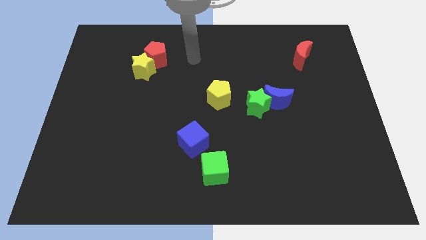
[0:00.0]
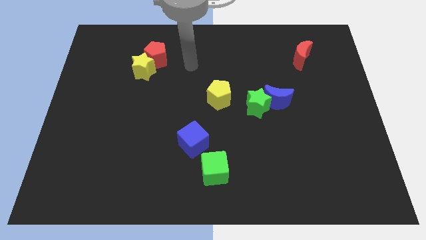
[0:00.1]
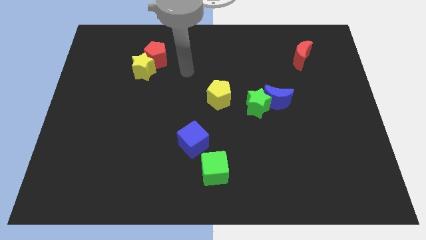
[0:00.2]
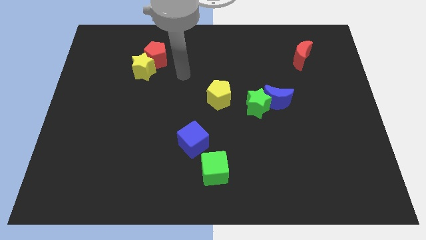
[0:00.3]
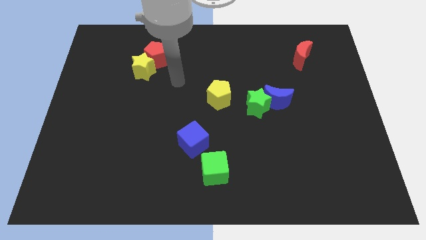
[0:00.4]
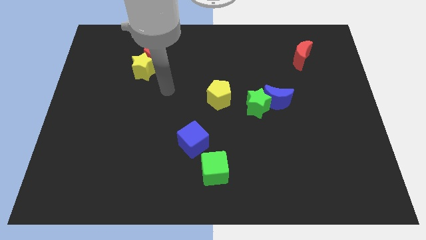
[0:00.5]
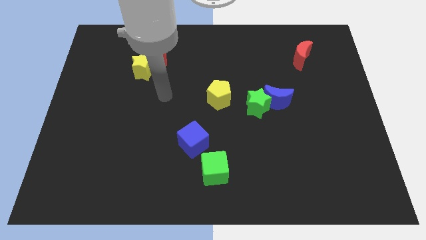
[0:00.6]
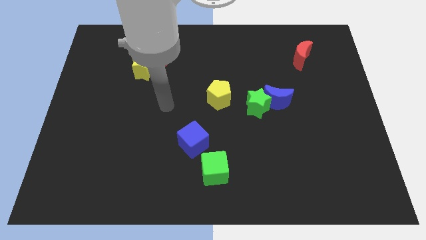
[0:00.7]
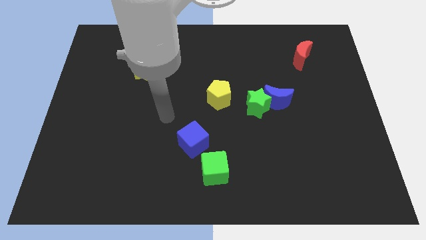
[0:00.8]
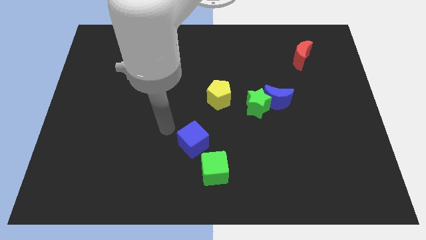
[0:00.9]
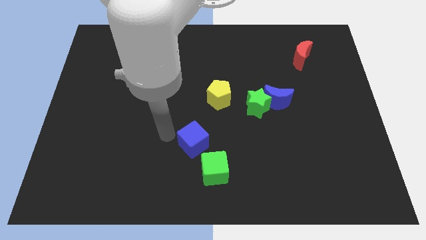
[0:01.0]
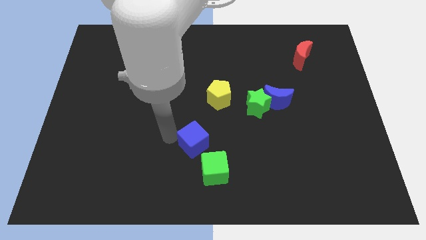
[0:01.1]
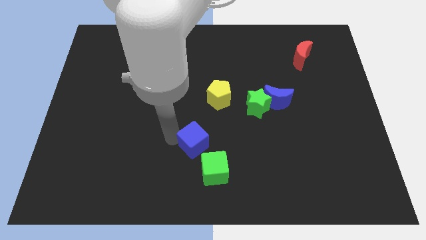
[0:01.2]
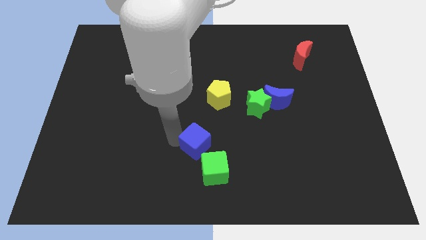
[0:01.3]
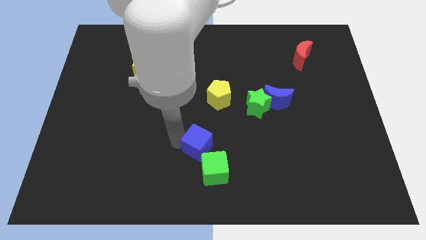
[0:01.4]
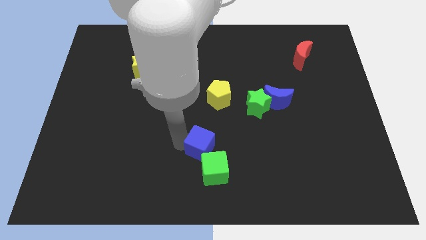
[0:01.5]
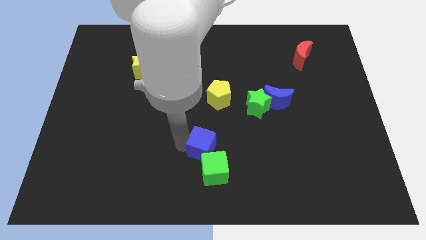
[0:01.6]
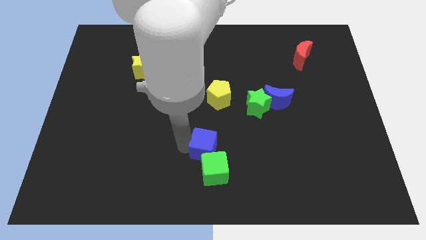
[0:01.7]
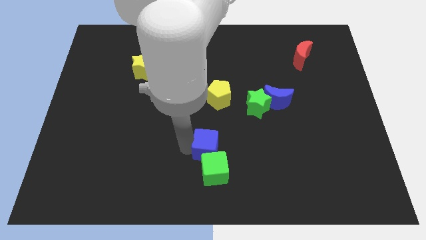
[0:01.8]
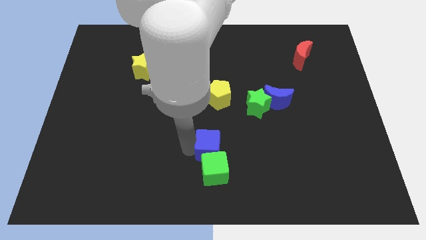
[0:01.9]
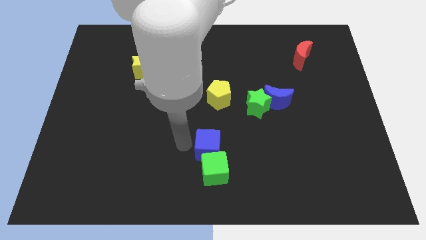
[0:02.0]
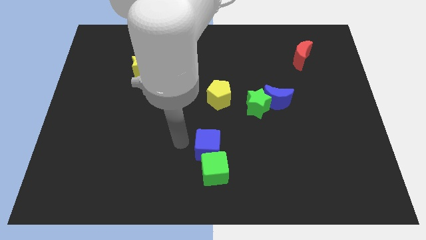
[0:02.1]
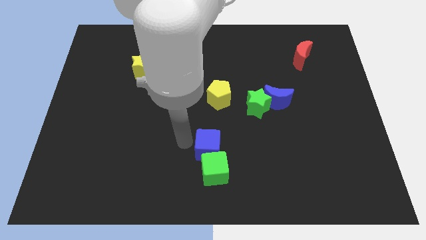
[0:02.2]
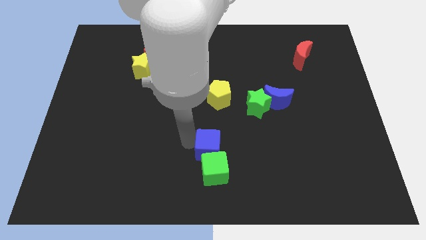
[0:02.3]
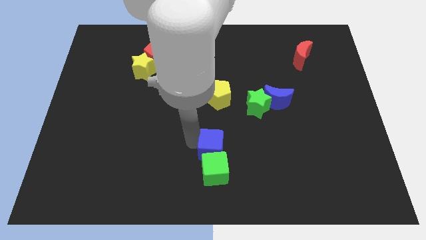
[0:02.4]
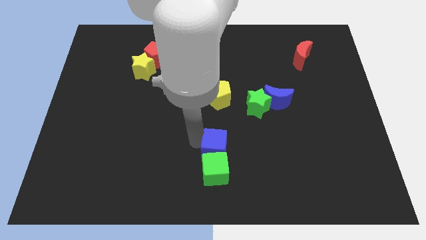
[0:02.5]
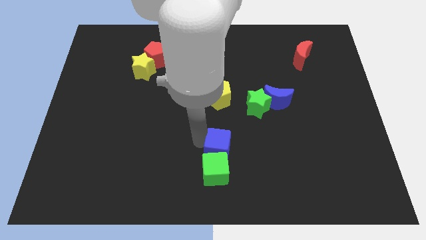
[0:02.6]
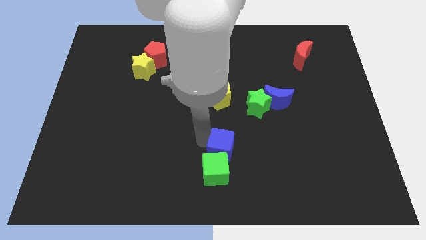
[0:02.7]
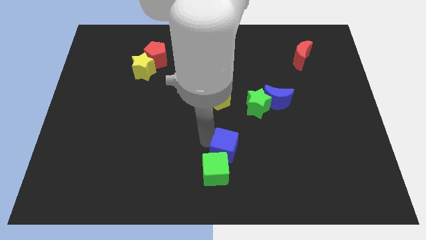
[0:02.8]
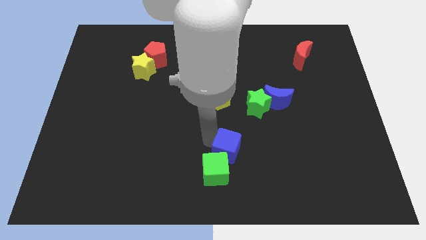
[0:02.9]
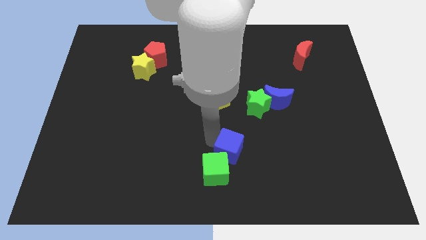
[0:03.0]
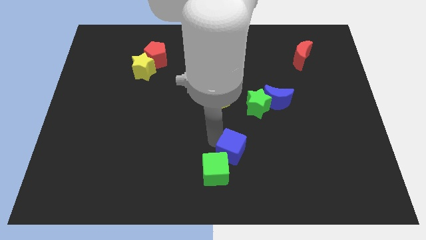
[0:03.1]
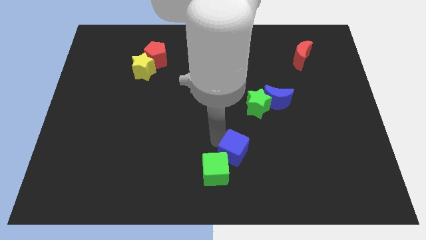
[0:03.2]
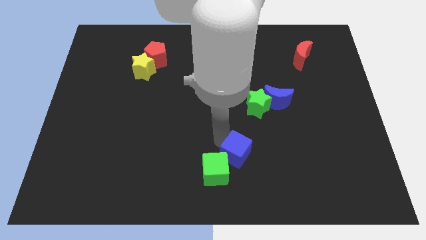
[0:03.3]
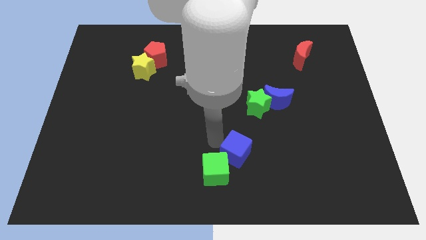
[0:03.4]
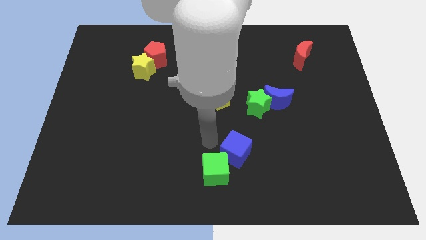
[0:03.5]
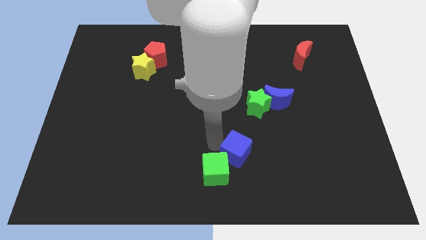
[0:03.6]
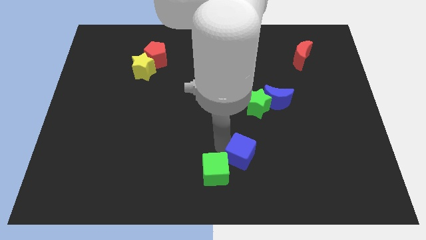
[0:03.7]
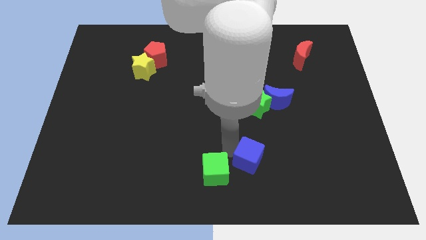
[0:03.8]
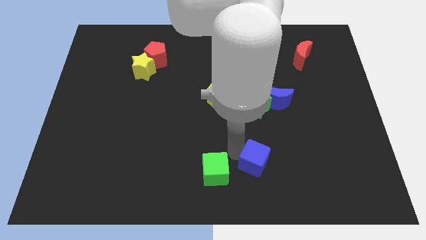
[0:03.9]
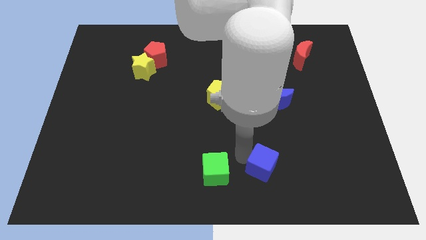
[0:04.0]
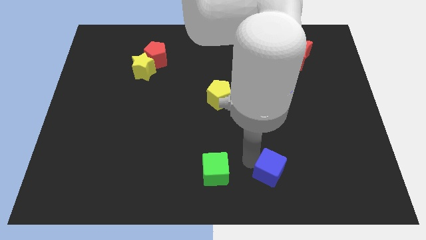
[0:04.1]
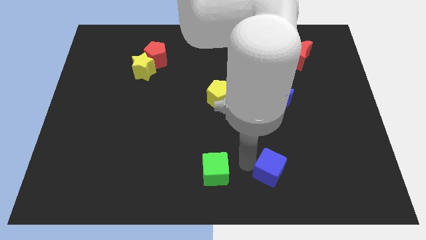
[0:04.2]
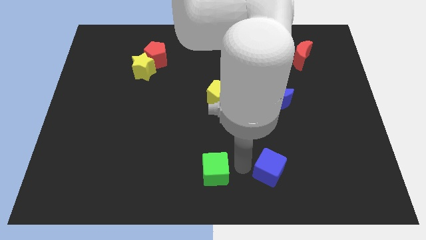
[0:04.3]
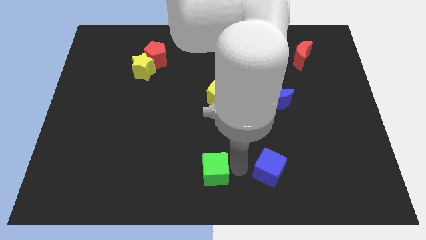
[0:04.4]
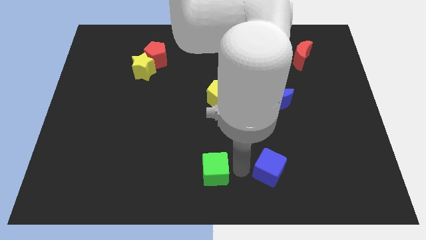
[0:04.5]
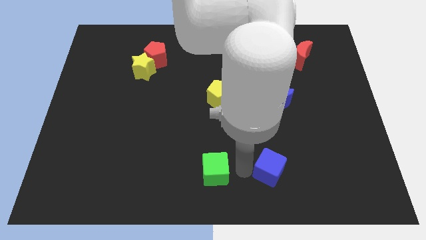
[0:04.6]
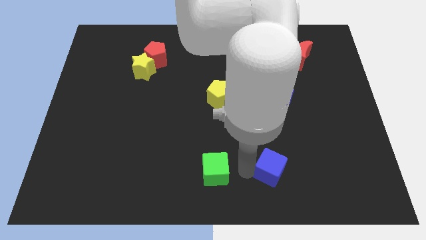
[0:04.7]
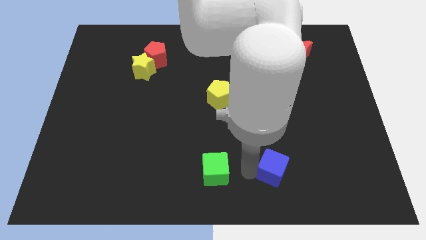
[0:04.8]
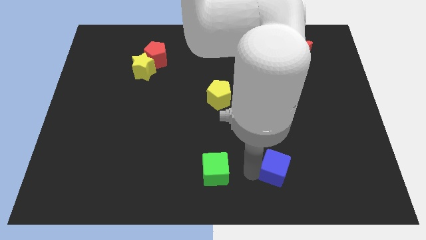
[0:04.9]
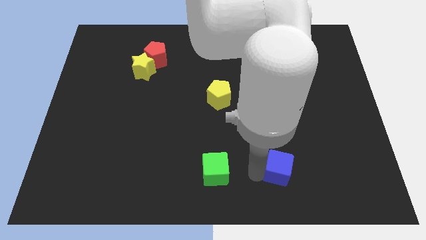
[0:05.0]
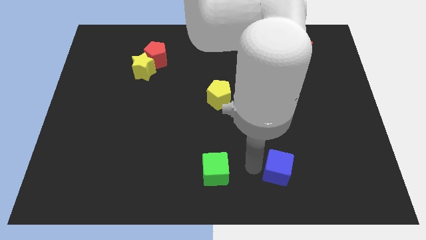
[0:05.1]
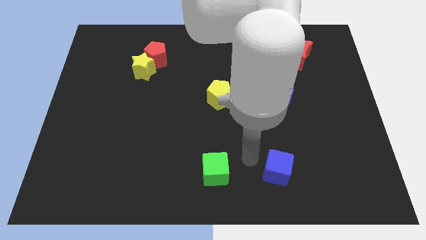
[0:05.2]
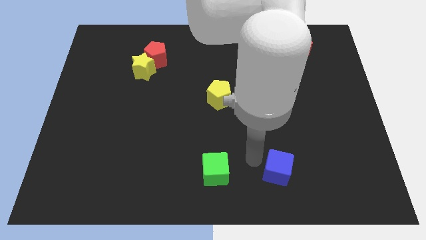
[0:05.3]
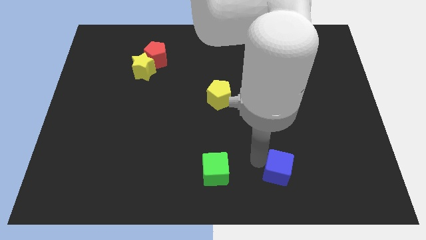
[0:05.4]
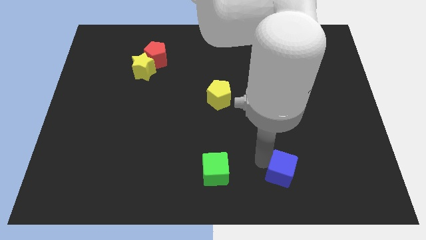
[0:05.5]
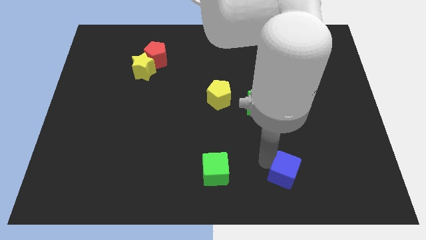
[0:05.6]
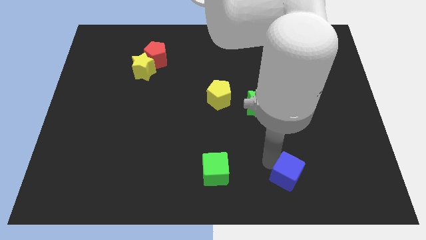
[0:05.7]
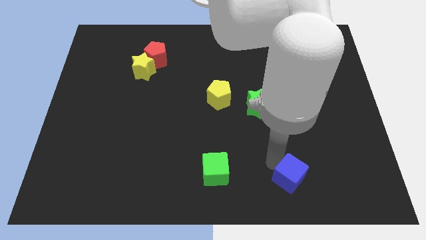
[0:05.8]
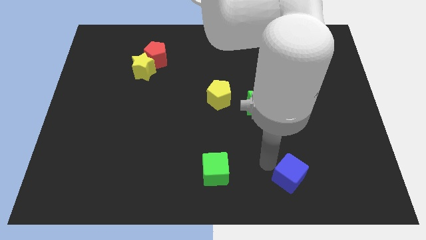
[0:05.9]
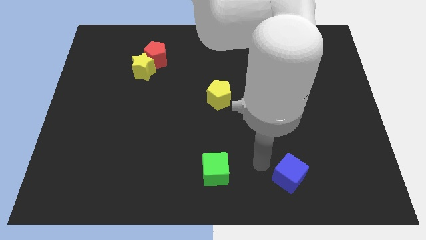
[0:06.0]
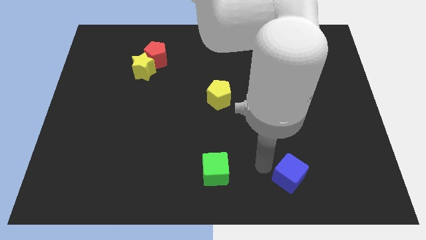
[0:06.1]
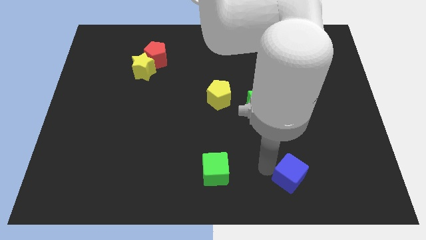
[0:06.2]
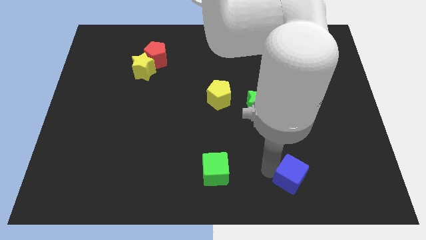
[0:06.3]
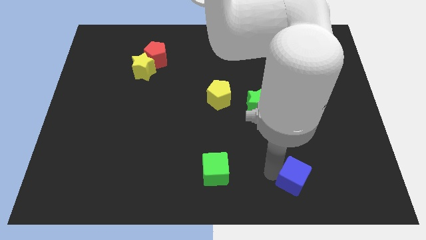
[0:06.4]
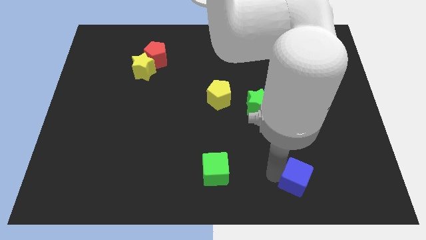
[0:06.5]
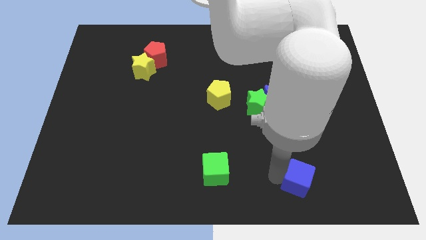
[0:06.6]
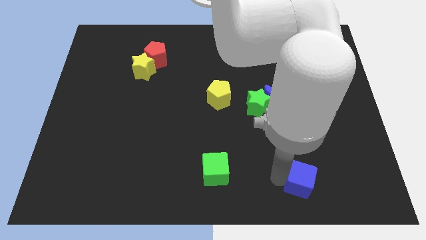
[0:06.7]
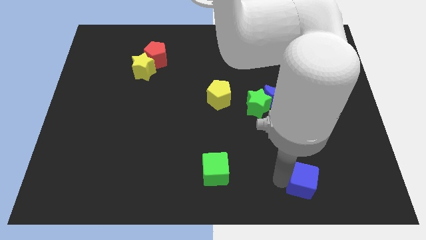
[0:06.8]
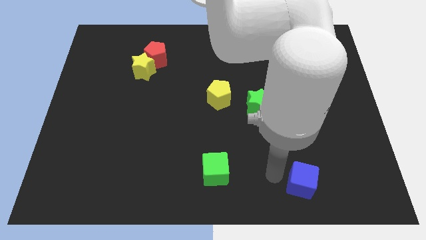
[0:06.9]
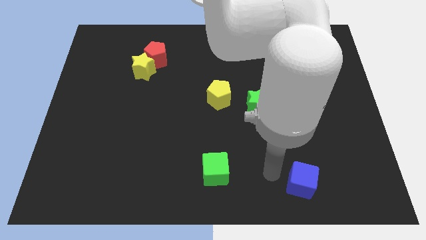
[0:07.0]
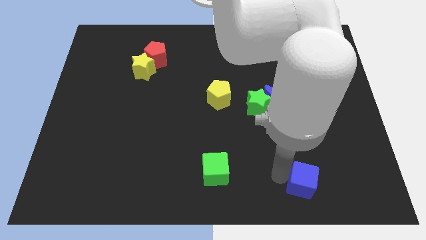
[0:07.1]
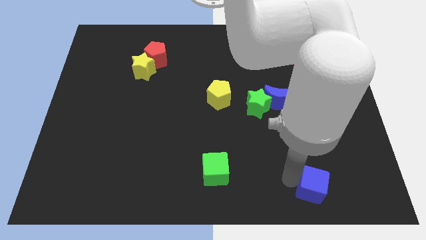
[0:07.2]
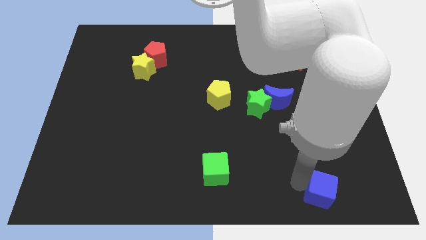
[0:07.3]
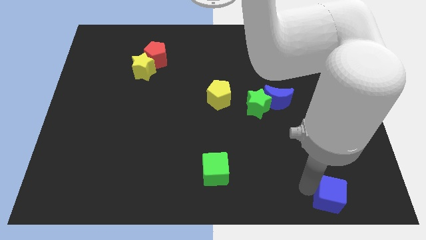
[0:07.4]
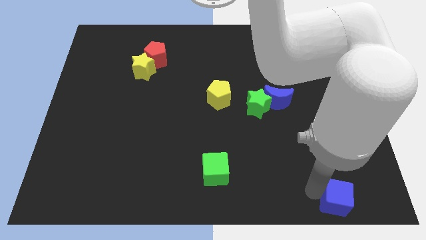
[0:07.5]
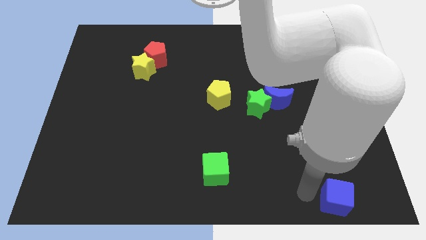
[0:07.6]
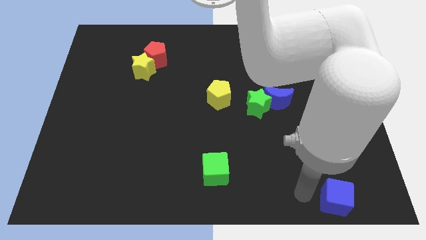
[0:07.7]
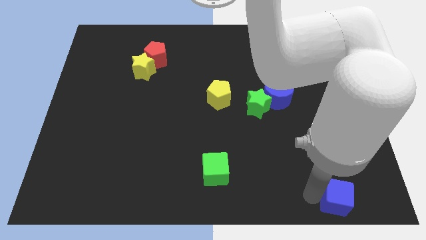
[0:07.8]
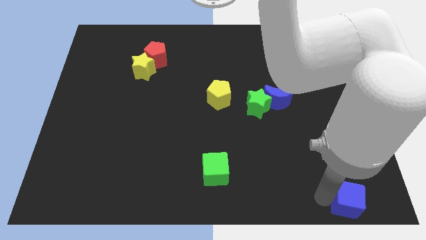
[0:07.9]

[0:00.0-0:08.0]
move the blue cube to the bottom right of the board

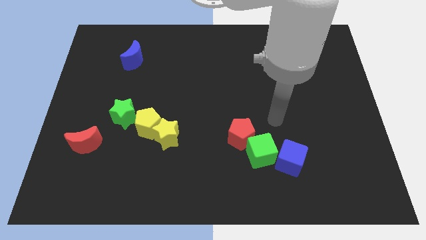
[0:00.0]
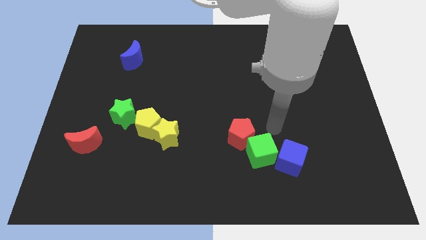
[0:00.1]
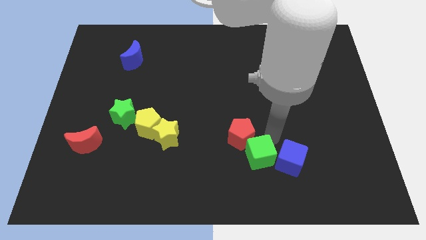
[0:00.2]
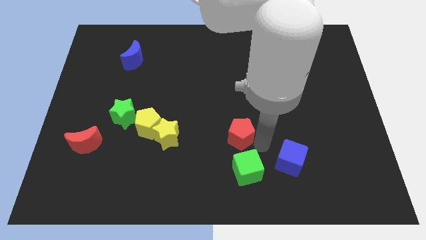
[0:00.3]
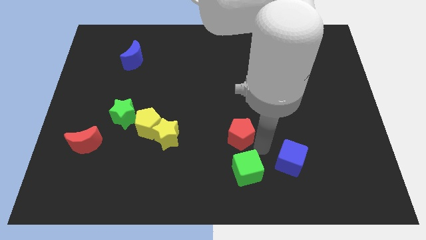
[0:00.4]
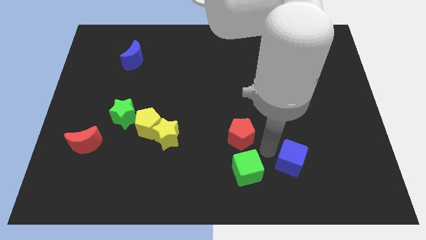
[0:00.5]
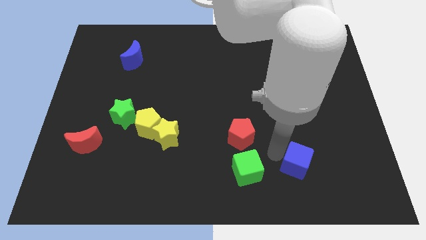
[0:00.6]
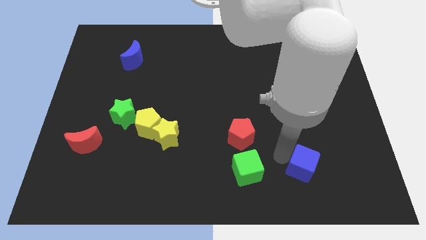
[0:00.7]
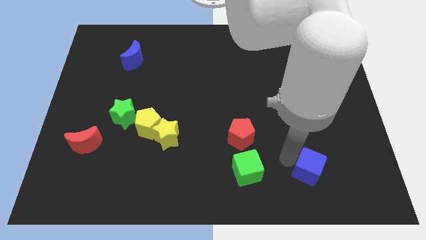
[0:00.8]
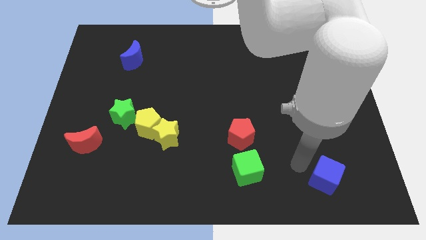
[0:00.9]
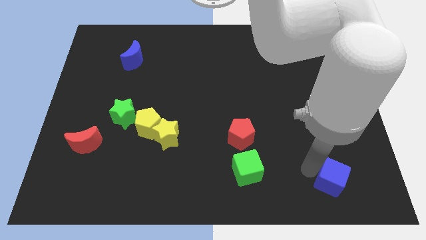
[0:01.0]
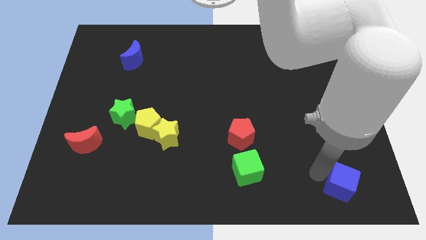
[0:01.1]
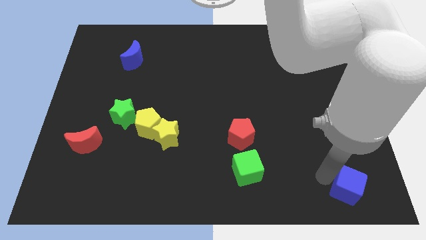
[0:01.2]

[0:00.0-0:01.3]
slide the blue cube to the bottom right
